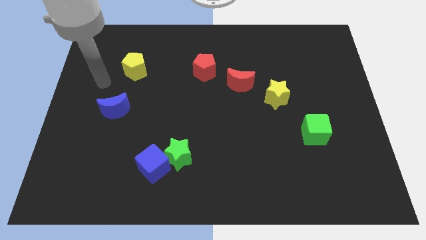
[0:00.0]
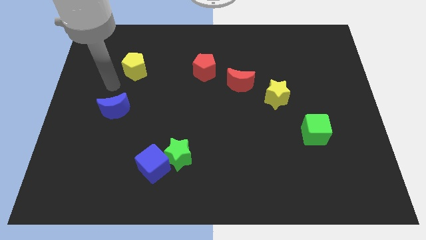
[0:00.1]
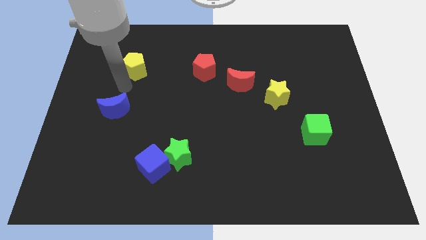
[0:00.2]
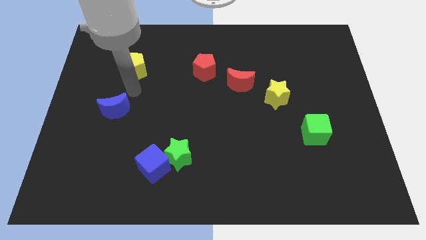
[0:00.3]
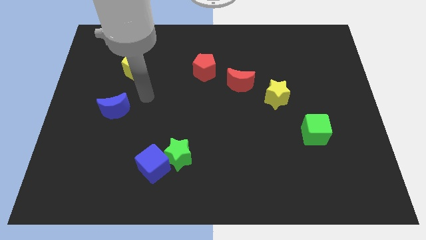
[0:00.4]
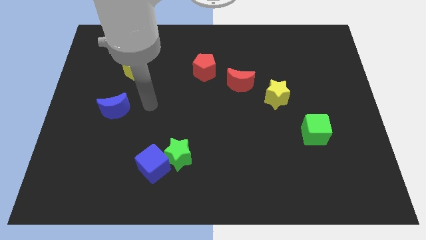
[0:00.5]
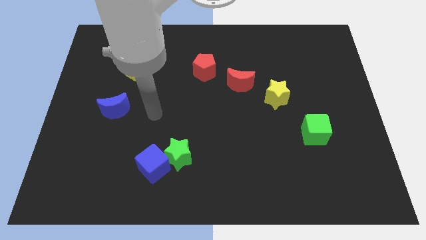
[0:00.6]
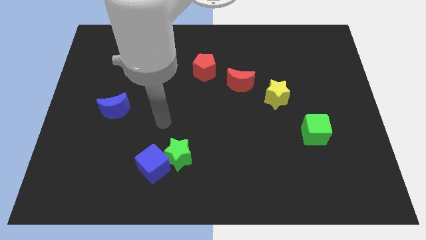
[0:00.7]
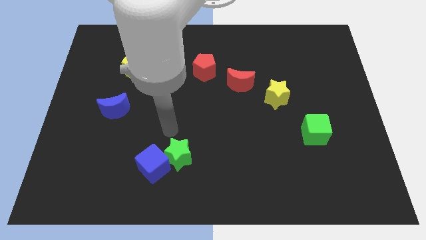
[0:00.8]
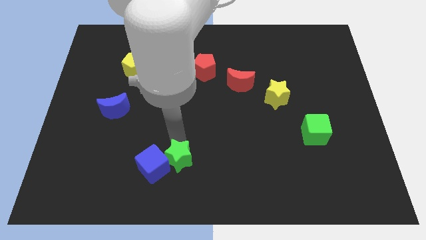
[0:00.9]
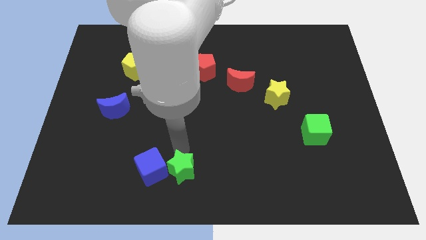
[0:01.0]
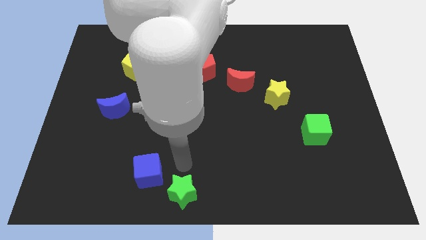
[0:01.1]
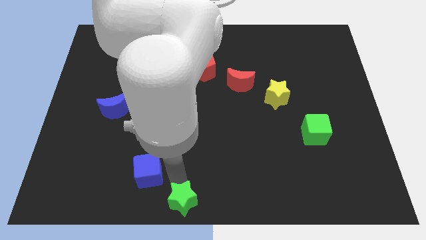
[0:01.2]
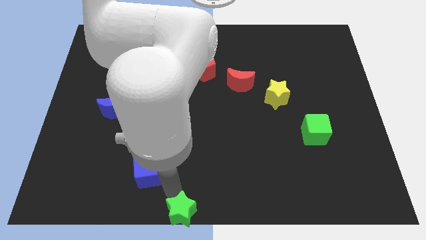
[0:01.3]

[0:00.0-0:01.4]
pull the blue cube apart from the green star

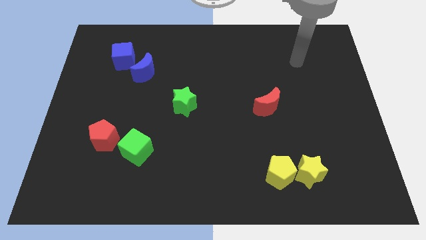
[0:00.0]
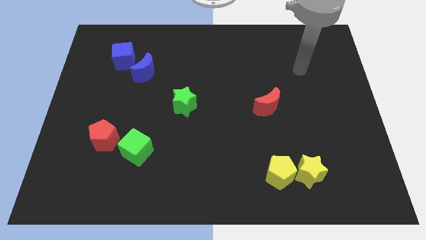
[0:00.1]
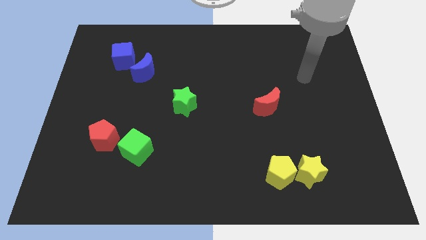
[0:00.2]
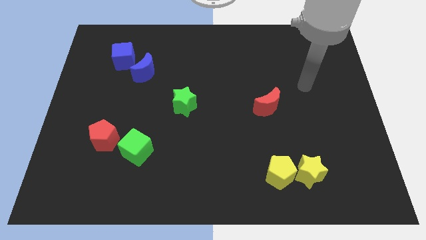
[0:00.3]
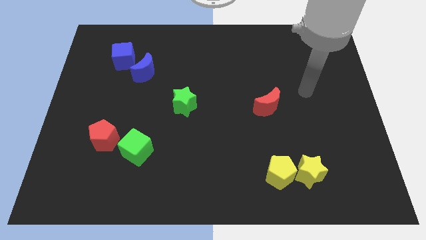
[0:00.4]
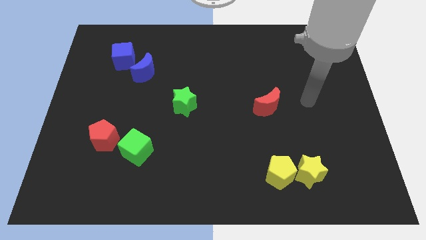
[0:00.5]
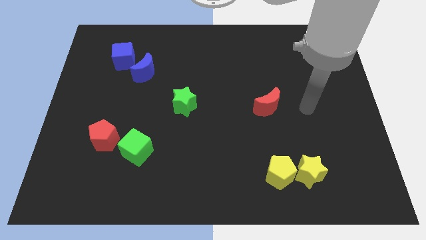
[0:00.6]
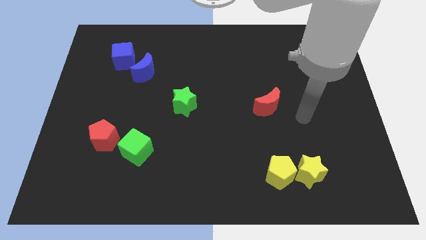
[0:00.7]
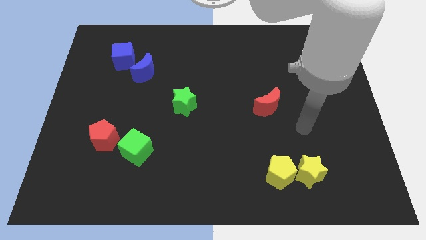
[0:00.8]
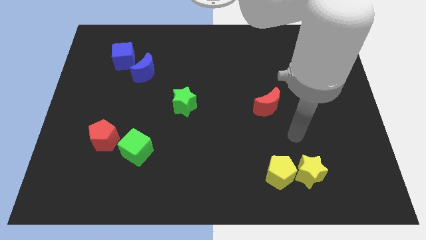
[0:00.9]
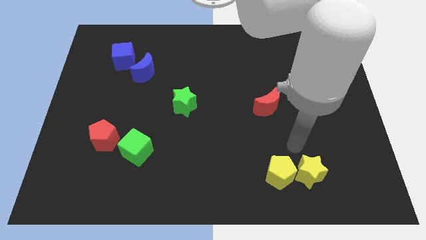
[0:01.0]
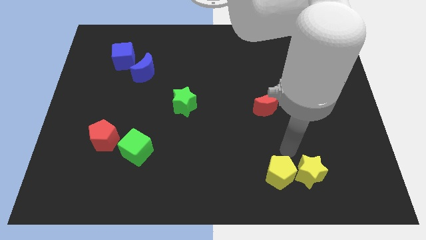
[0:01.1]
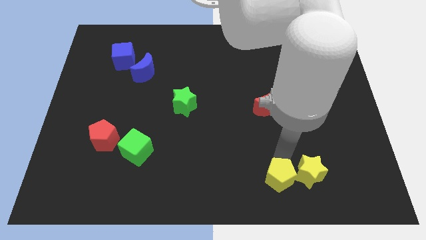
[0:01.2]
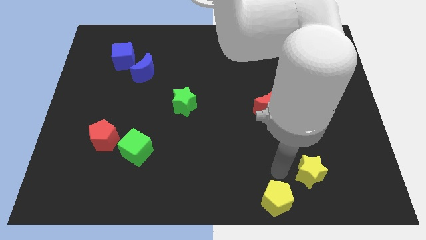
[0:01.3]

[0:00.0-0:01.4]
move the yellow star away from the yellow pentagon

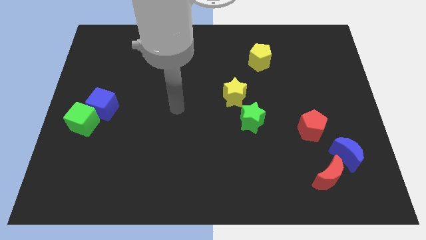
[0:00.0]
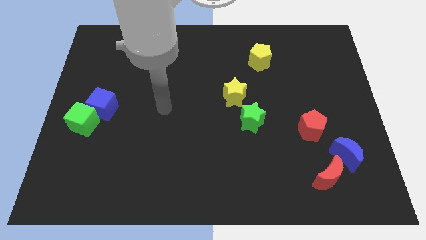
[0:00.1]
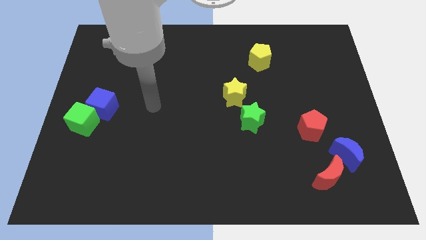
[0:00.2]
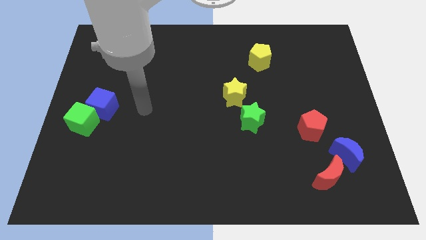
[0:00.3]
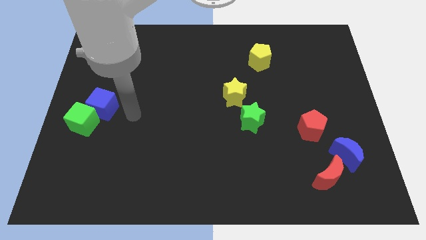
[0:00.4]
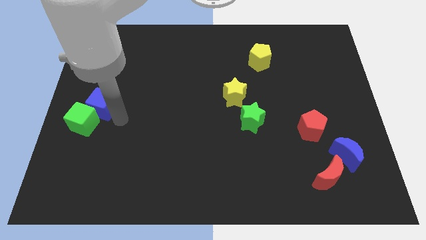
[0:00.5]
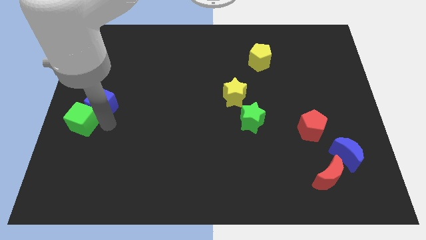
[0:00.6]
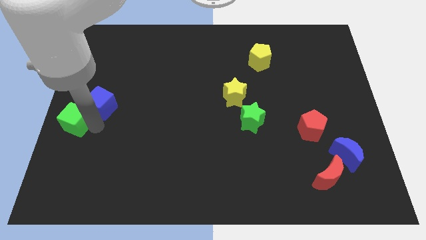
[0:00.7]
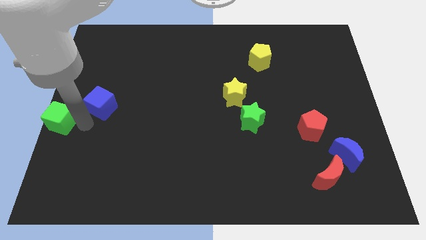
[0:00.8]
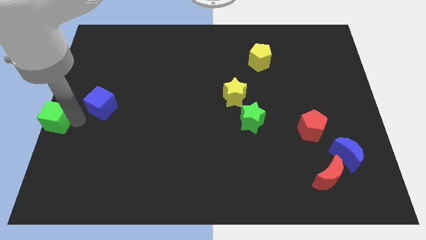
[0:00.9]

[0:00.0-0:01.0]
separate the blue cube from the green cube

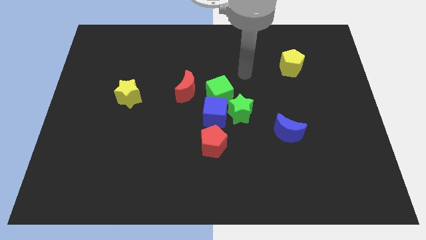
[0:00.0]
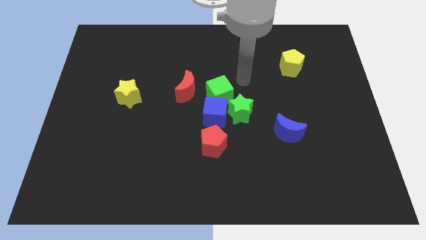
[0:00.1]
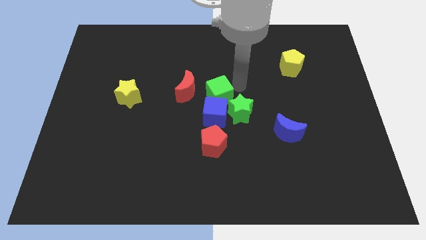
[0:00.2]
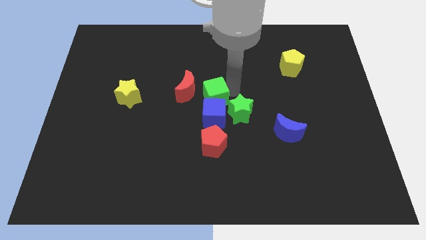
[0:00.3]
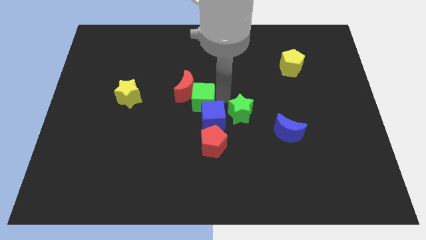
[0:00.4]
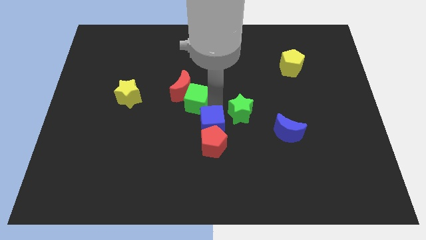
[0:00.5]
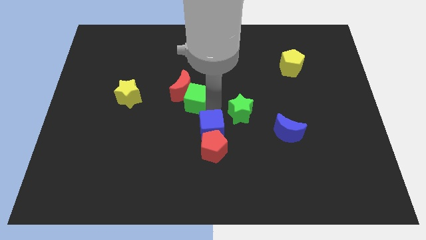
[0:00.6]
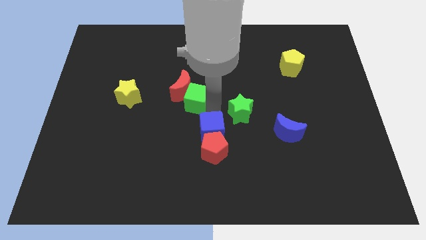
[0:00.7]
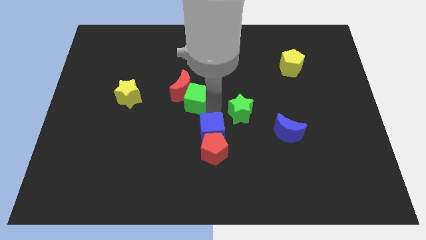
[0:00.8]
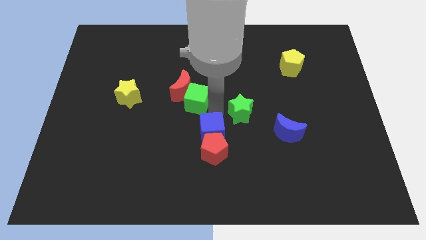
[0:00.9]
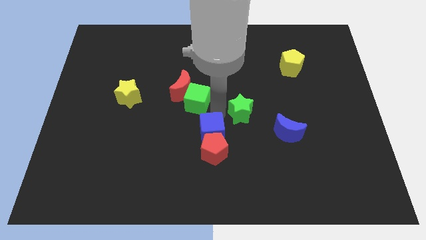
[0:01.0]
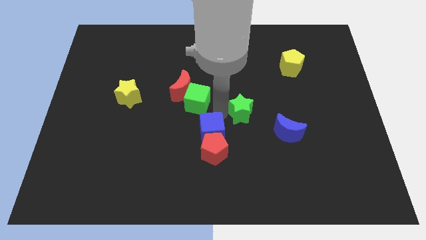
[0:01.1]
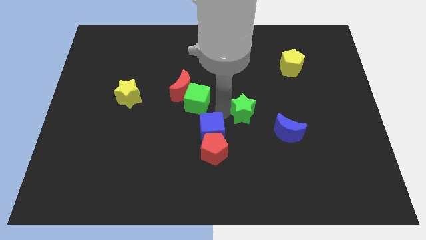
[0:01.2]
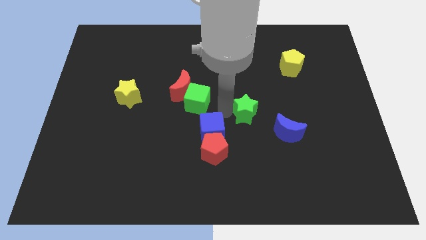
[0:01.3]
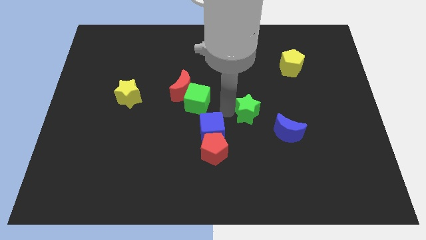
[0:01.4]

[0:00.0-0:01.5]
pull the green star apart from the blue cube and green cube

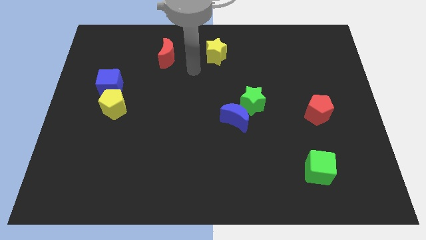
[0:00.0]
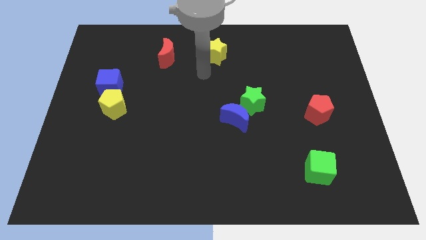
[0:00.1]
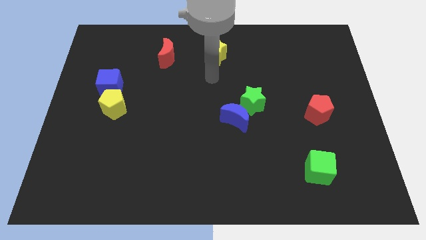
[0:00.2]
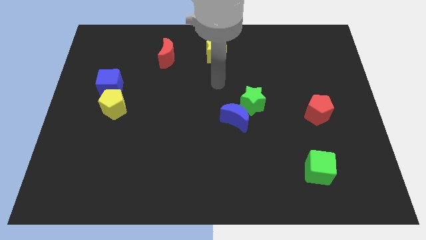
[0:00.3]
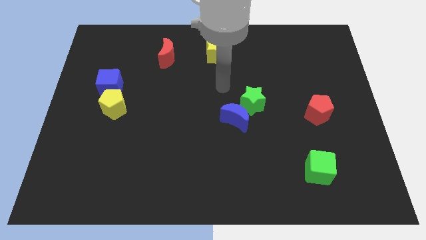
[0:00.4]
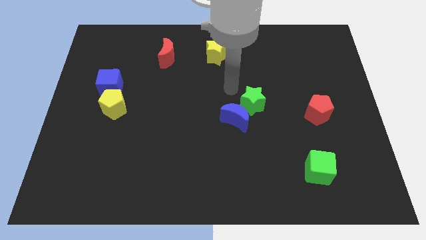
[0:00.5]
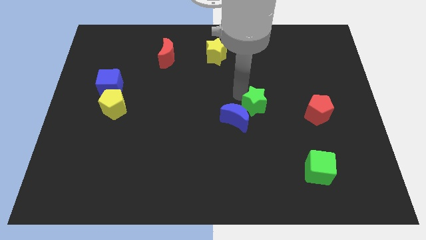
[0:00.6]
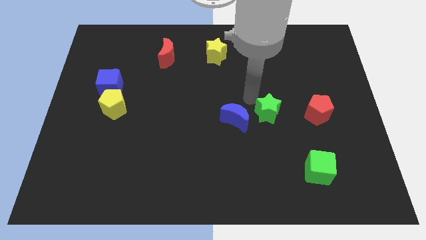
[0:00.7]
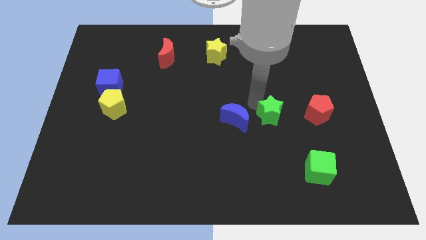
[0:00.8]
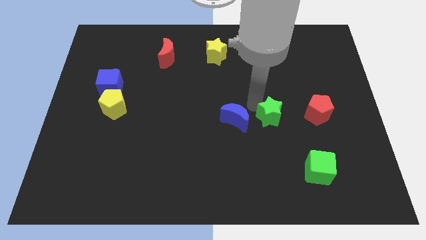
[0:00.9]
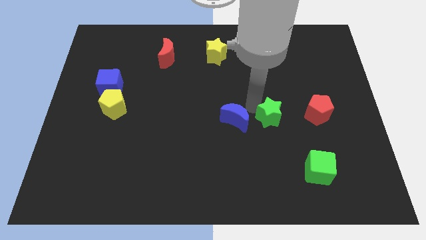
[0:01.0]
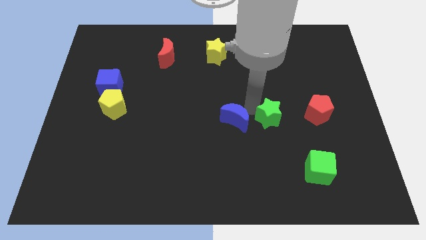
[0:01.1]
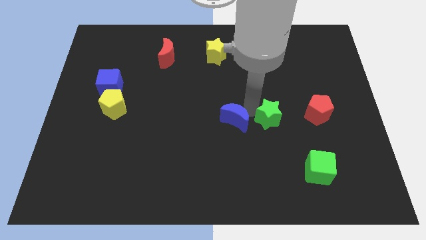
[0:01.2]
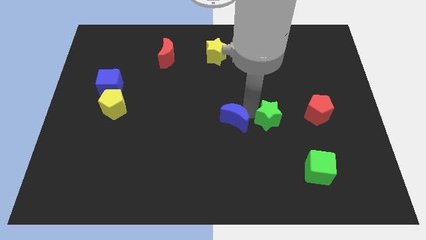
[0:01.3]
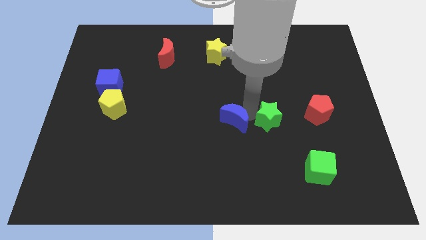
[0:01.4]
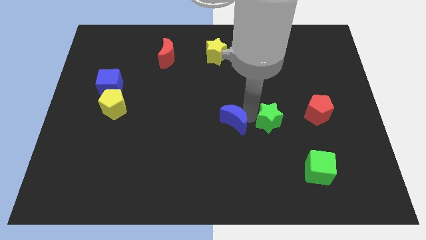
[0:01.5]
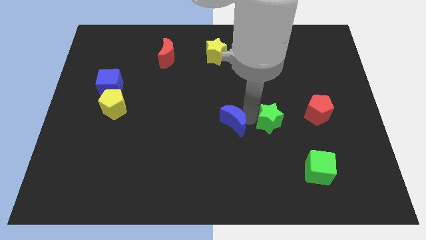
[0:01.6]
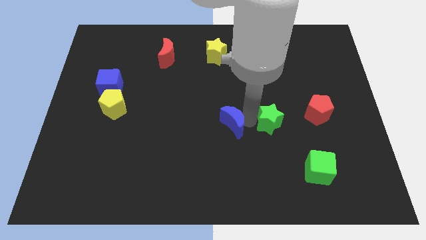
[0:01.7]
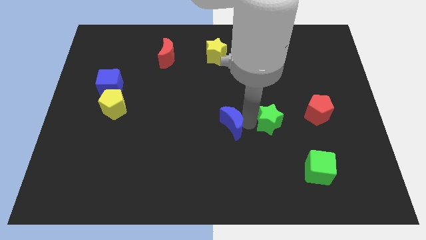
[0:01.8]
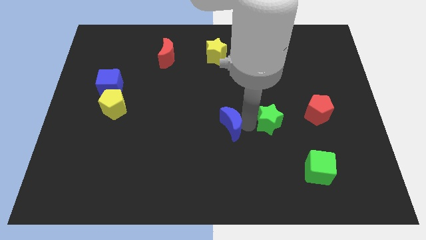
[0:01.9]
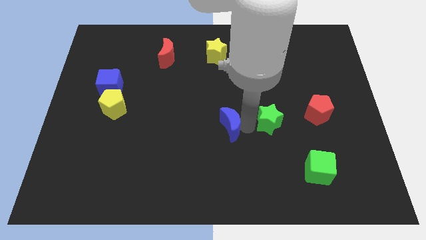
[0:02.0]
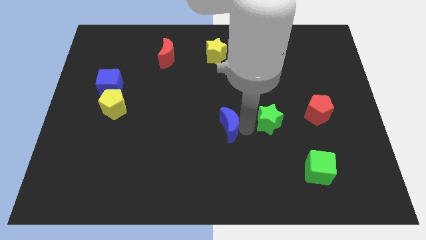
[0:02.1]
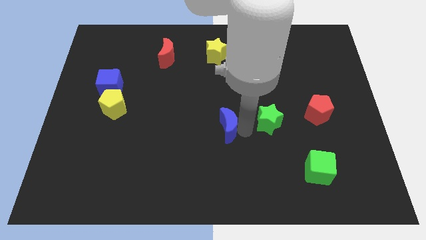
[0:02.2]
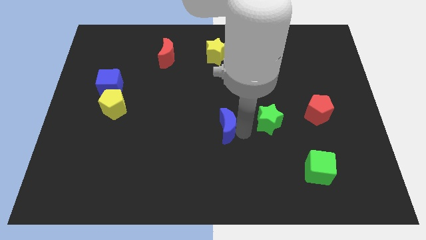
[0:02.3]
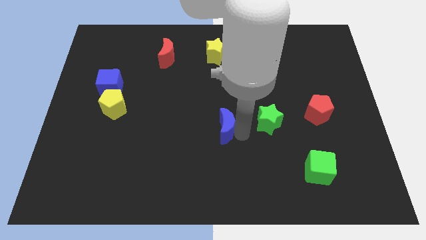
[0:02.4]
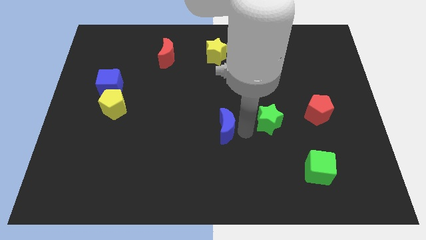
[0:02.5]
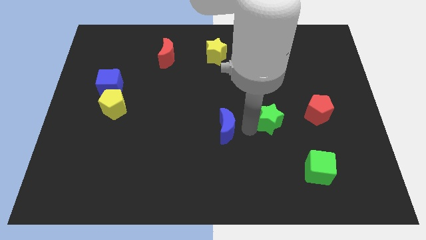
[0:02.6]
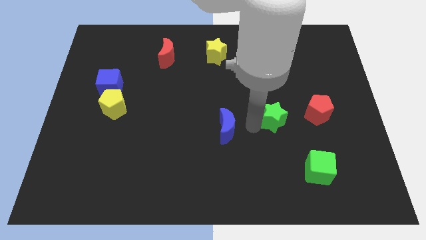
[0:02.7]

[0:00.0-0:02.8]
separate the blue moon from the green star

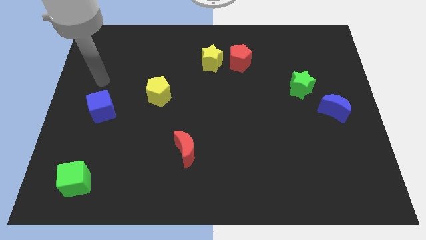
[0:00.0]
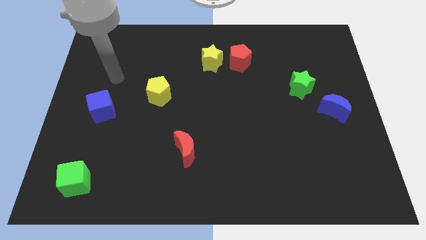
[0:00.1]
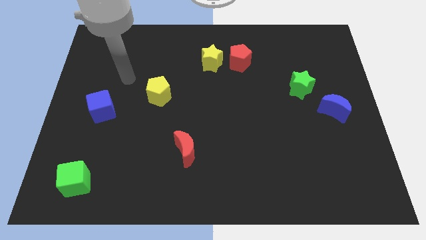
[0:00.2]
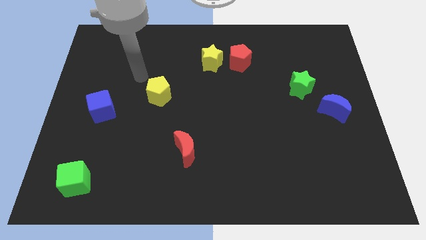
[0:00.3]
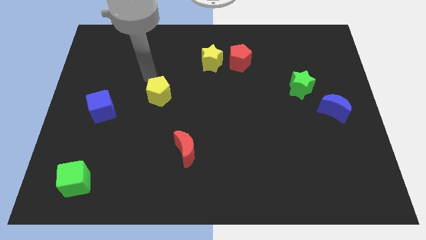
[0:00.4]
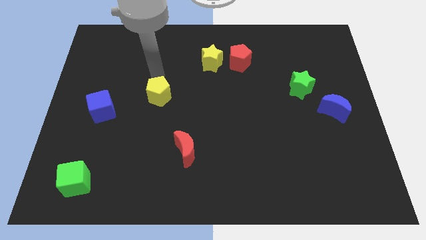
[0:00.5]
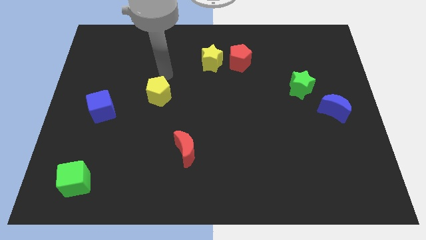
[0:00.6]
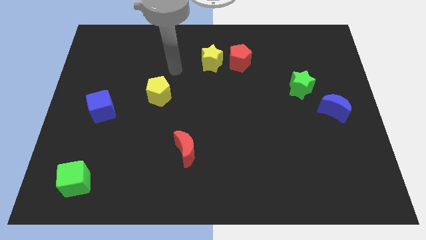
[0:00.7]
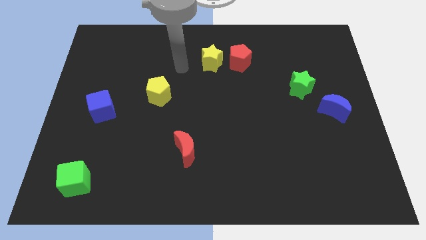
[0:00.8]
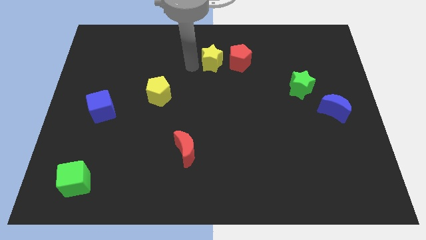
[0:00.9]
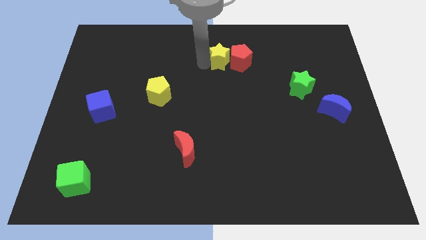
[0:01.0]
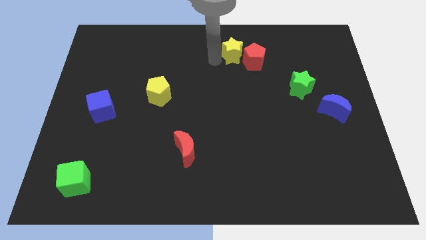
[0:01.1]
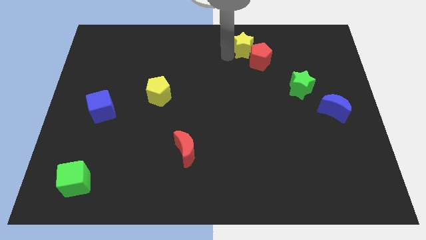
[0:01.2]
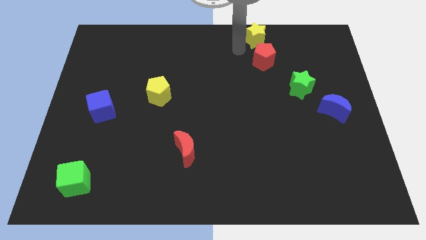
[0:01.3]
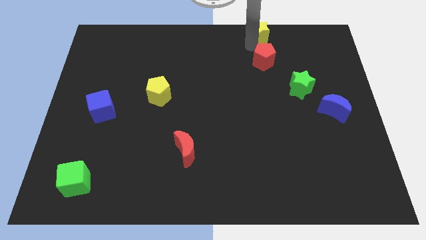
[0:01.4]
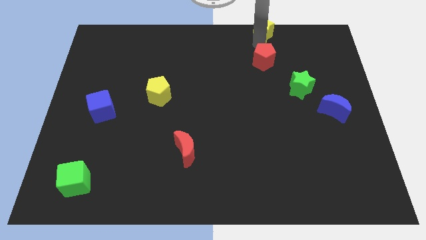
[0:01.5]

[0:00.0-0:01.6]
move the red pentagon away from the yellow star
